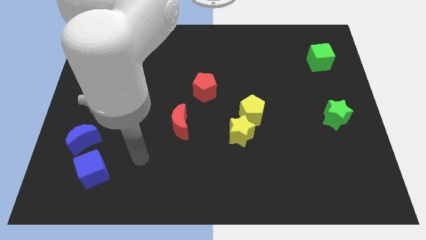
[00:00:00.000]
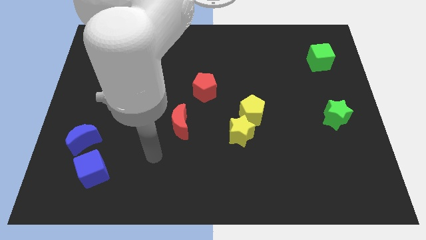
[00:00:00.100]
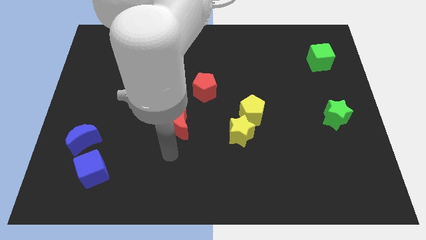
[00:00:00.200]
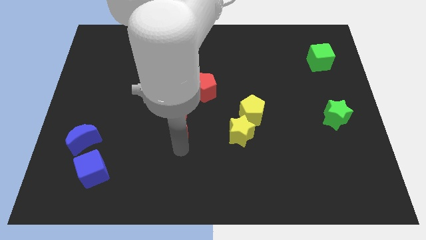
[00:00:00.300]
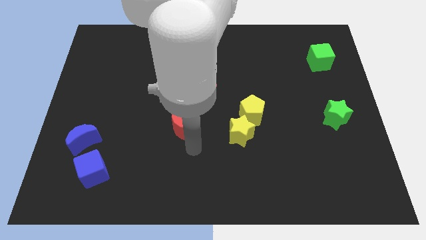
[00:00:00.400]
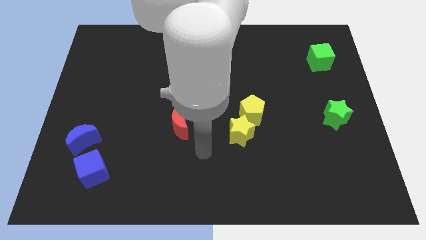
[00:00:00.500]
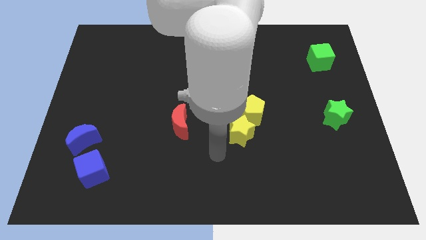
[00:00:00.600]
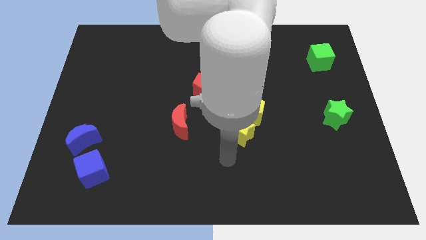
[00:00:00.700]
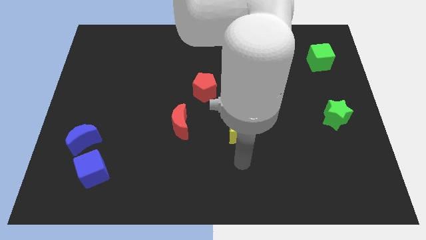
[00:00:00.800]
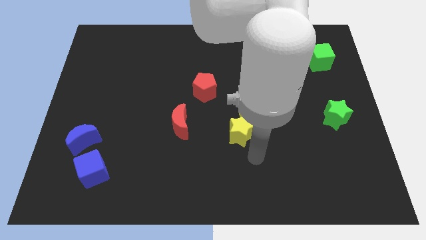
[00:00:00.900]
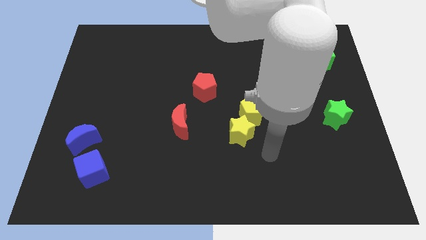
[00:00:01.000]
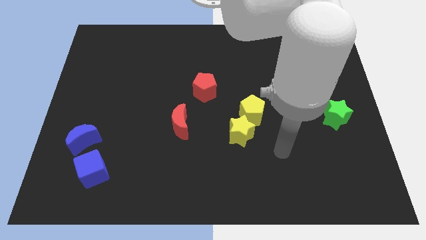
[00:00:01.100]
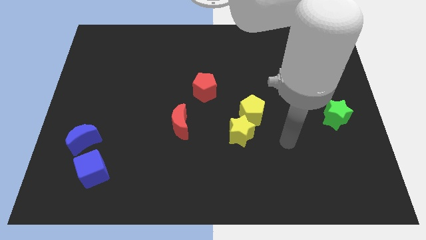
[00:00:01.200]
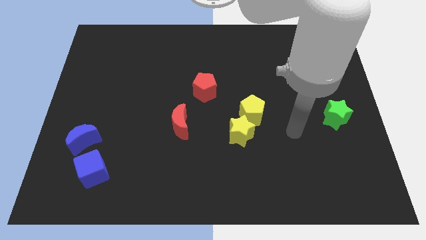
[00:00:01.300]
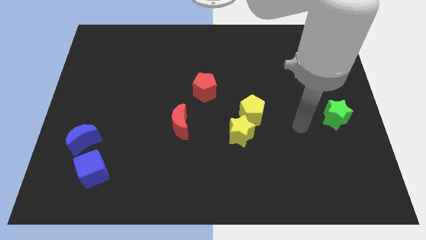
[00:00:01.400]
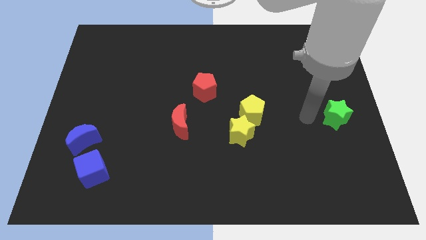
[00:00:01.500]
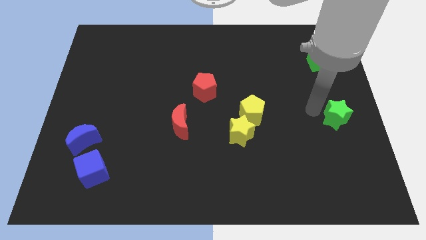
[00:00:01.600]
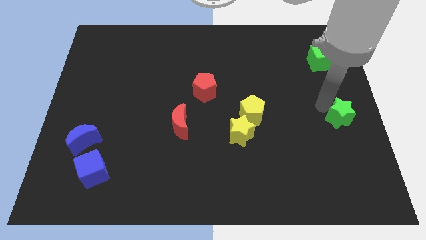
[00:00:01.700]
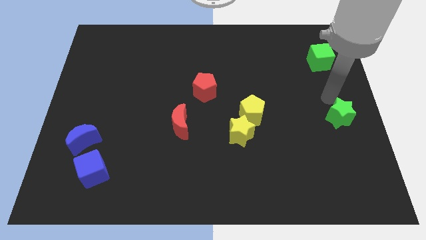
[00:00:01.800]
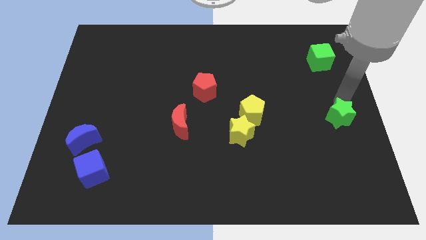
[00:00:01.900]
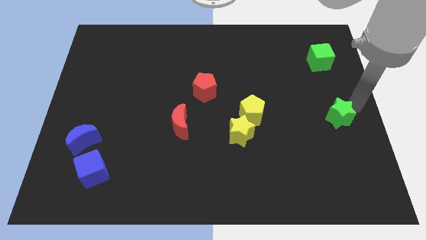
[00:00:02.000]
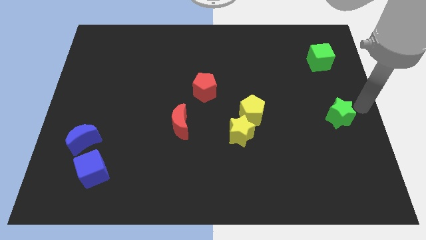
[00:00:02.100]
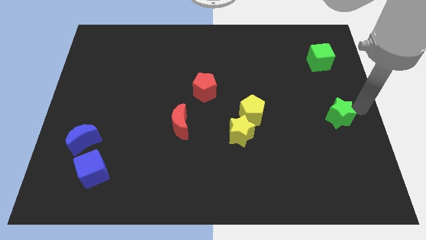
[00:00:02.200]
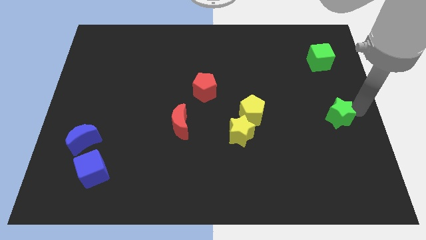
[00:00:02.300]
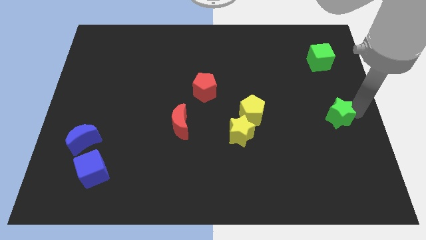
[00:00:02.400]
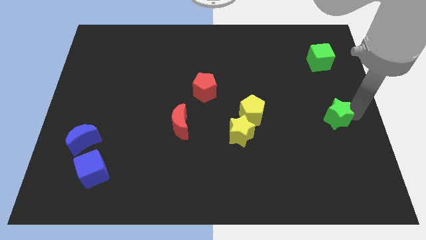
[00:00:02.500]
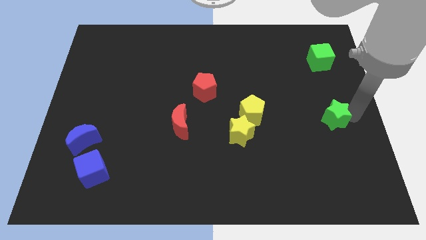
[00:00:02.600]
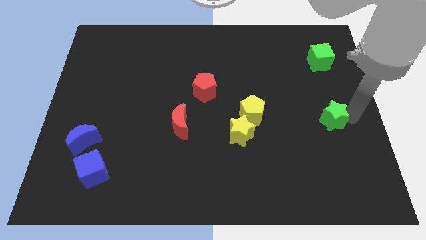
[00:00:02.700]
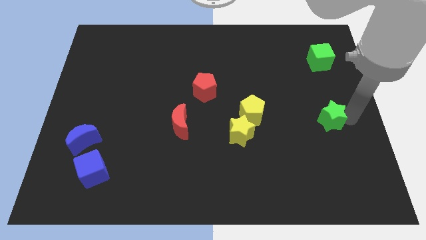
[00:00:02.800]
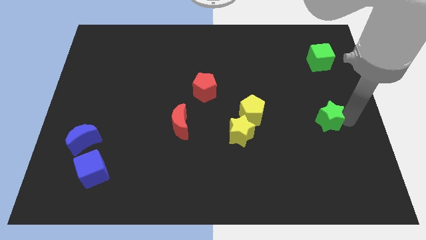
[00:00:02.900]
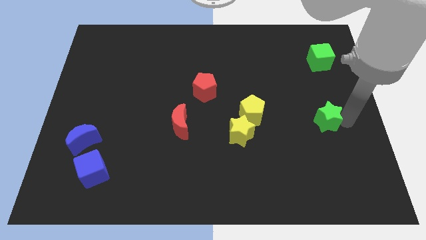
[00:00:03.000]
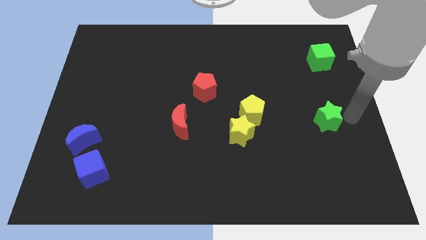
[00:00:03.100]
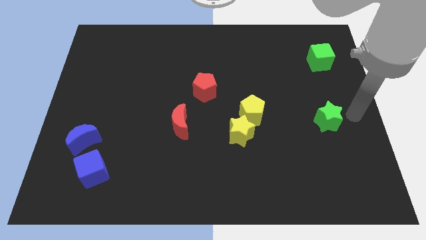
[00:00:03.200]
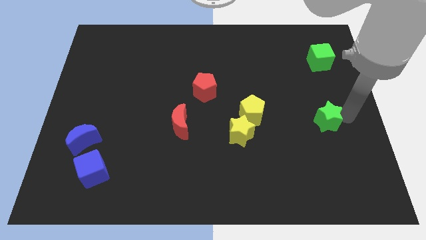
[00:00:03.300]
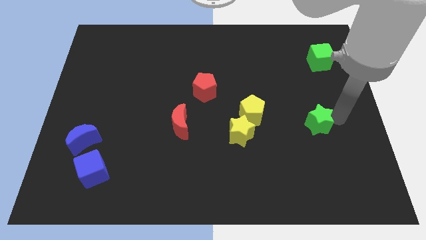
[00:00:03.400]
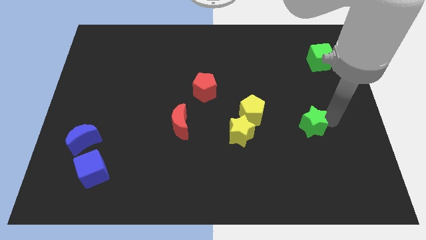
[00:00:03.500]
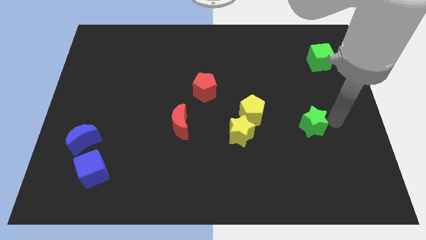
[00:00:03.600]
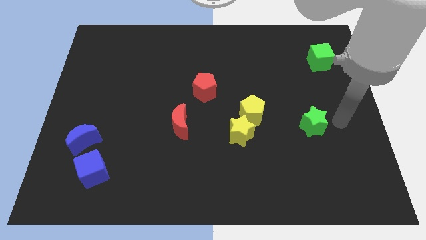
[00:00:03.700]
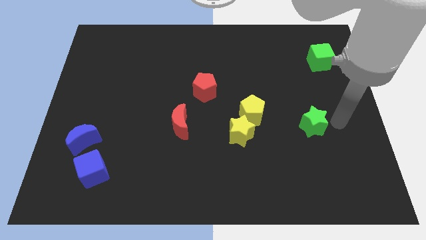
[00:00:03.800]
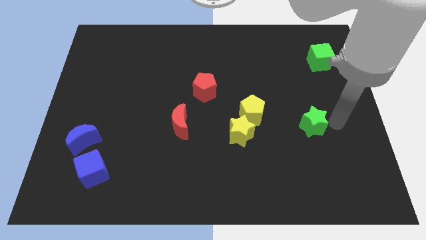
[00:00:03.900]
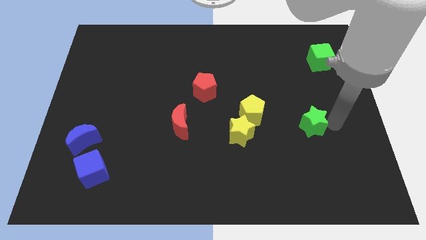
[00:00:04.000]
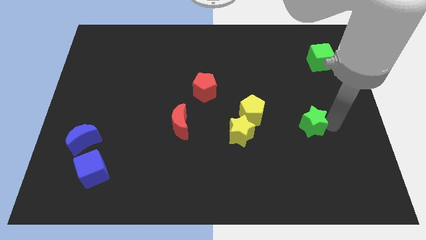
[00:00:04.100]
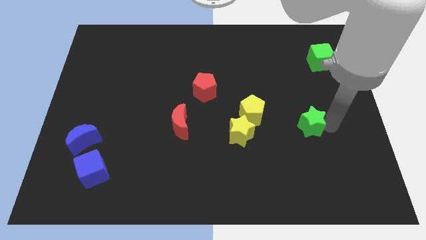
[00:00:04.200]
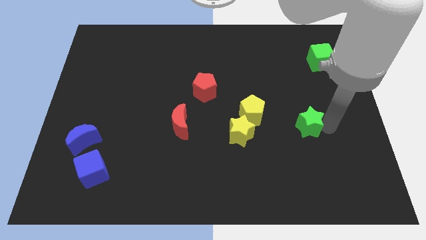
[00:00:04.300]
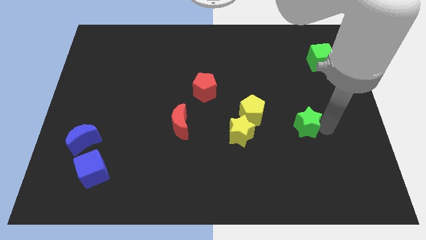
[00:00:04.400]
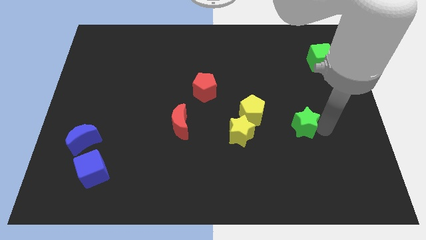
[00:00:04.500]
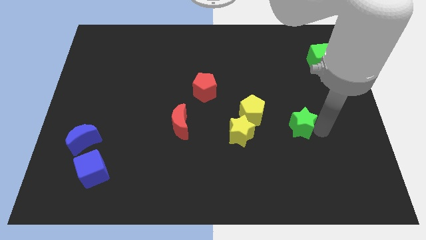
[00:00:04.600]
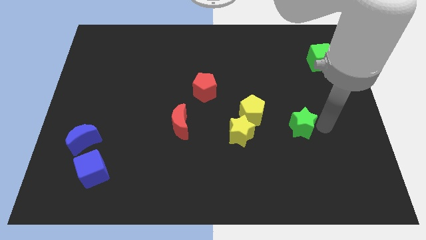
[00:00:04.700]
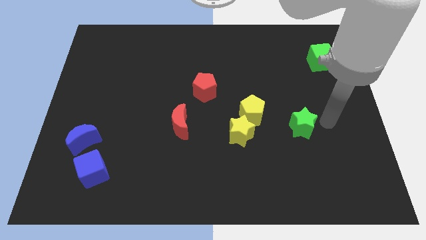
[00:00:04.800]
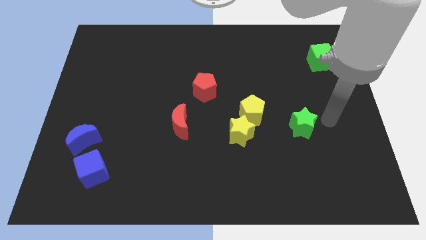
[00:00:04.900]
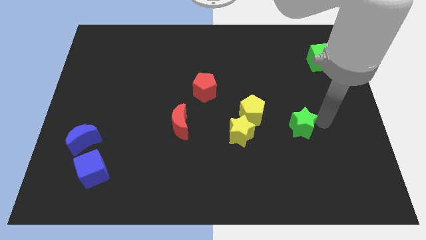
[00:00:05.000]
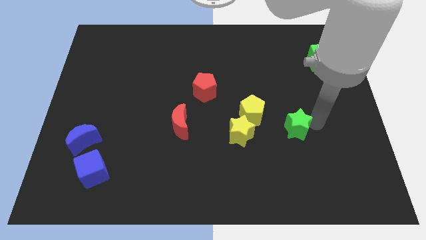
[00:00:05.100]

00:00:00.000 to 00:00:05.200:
move the green star diagonally down and to the right of the yellow pentagon

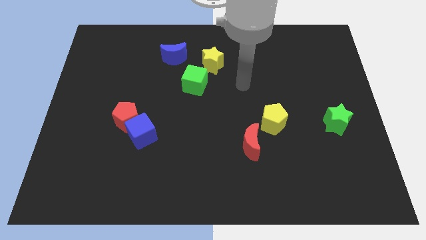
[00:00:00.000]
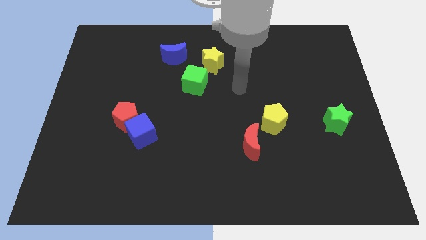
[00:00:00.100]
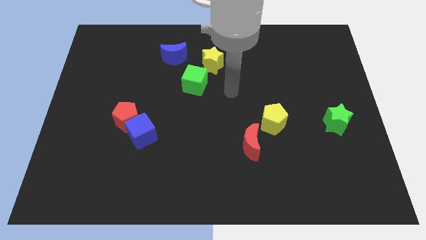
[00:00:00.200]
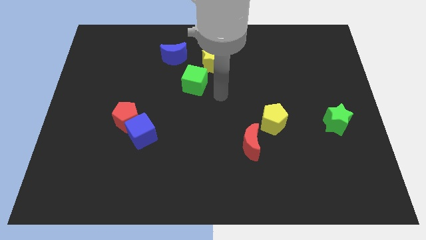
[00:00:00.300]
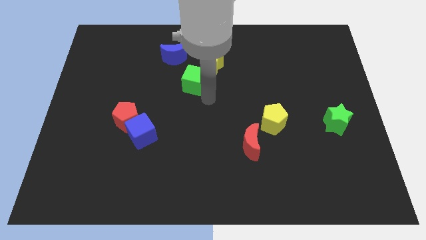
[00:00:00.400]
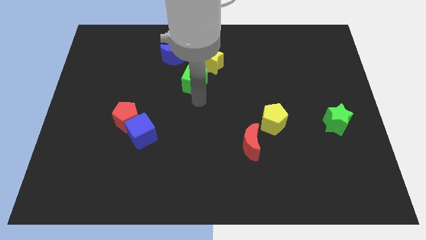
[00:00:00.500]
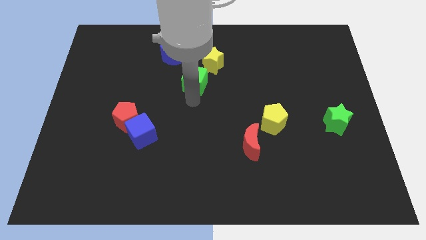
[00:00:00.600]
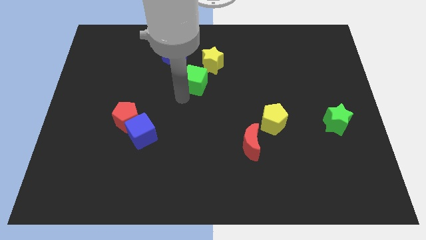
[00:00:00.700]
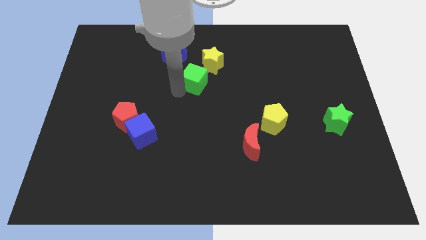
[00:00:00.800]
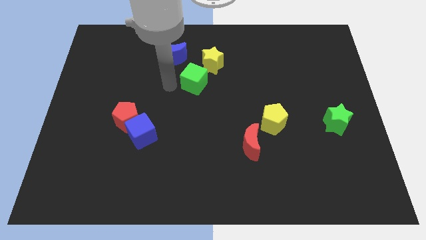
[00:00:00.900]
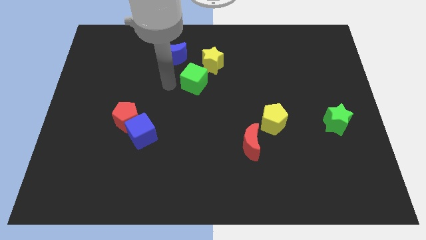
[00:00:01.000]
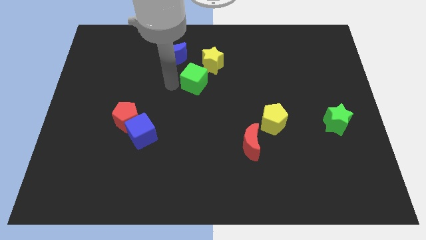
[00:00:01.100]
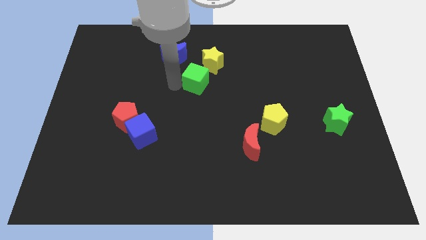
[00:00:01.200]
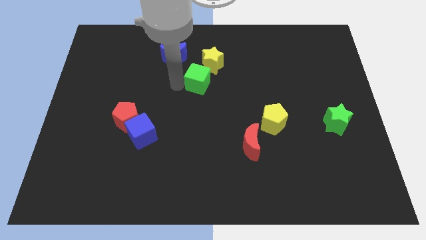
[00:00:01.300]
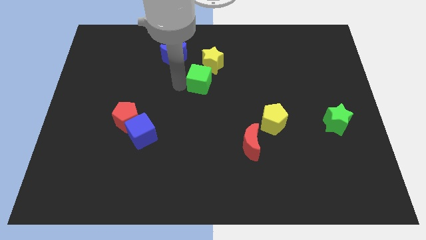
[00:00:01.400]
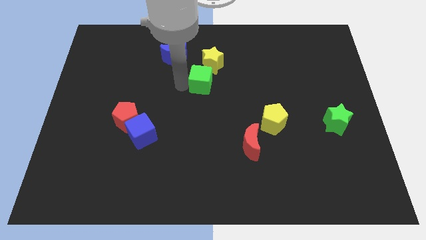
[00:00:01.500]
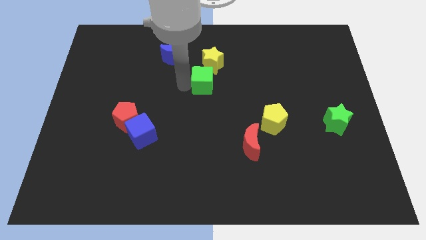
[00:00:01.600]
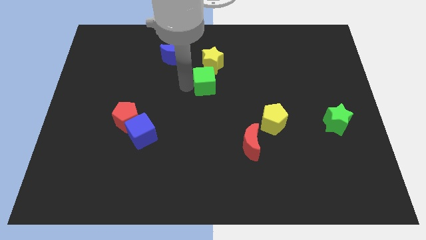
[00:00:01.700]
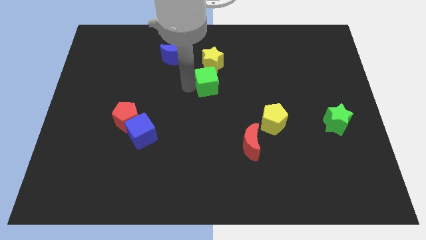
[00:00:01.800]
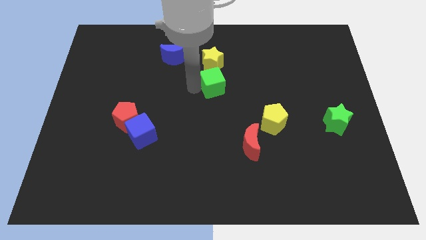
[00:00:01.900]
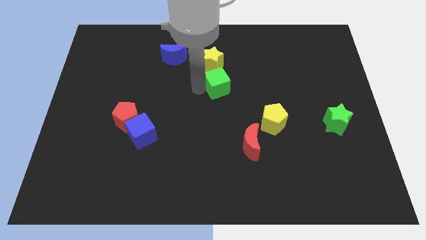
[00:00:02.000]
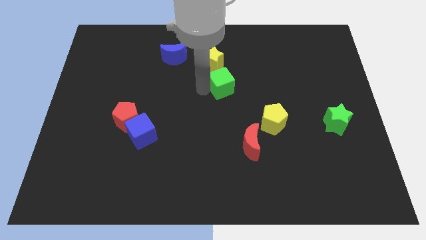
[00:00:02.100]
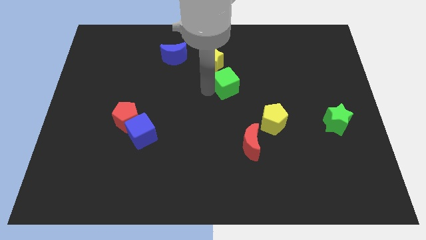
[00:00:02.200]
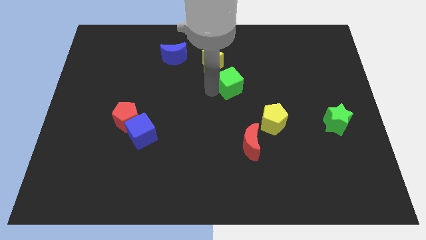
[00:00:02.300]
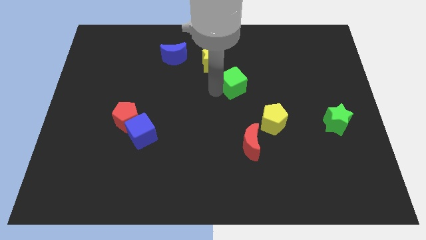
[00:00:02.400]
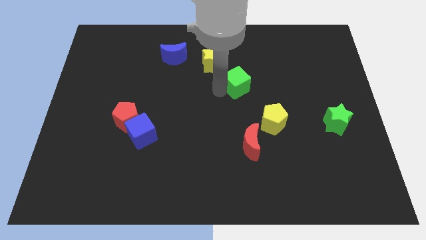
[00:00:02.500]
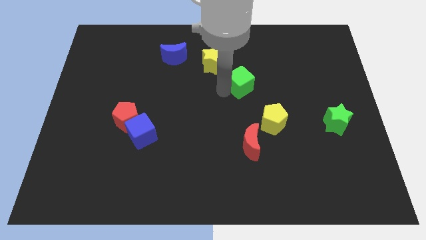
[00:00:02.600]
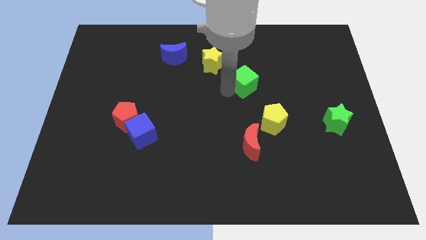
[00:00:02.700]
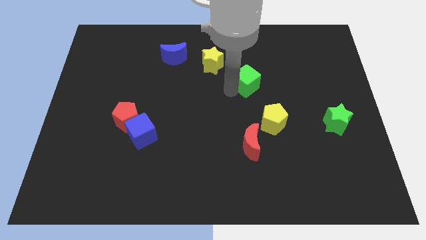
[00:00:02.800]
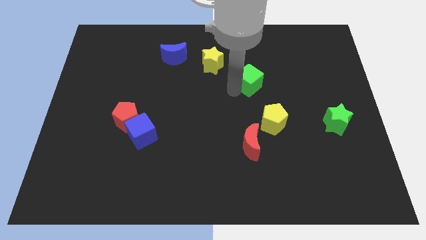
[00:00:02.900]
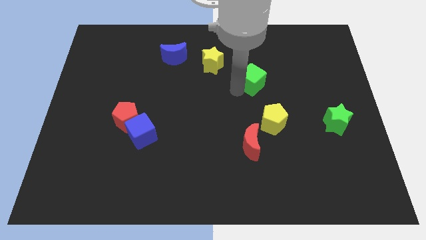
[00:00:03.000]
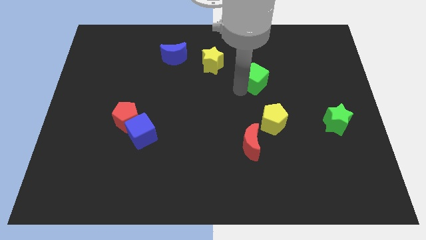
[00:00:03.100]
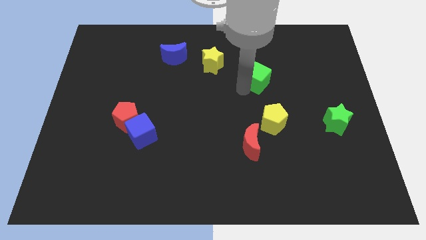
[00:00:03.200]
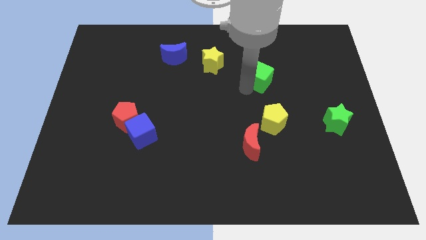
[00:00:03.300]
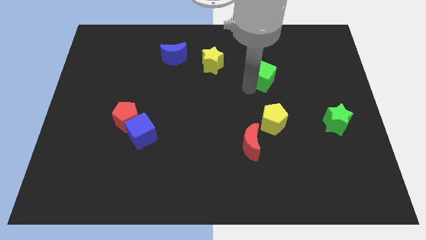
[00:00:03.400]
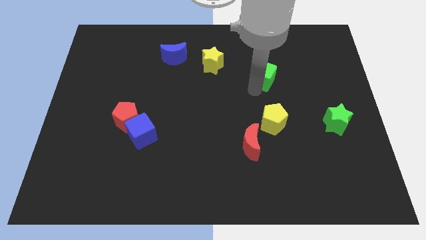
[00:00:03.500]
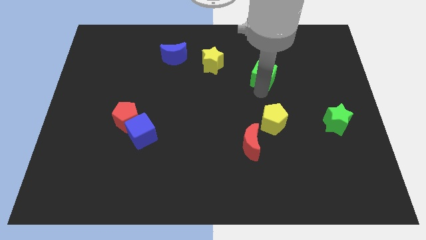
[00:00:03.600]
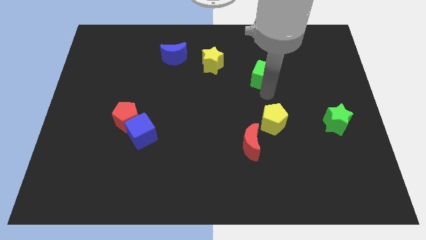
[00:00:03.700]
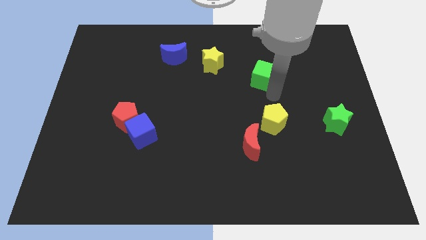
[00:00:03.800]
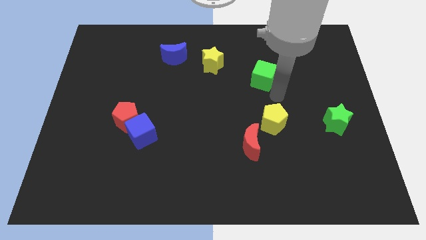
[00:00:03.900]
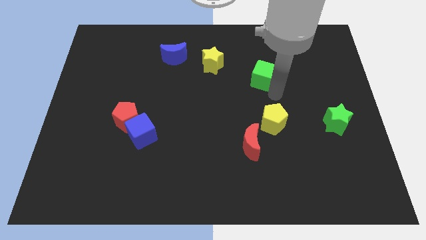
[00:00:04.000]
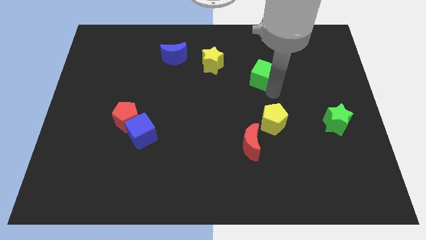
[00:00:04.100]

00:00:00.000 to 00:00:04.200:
push the green cube just right of the yellow star
